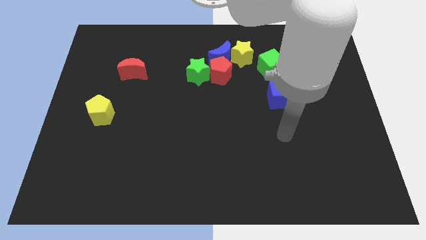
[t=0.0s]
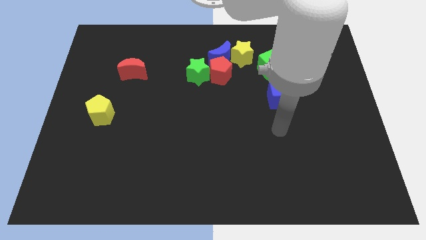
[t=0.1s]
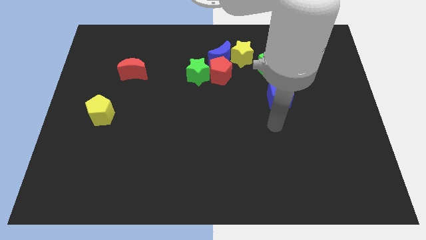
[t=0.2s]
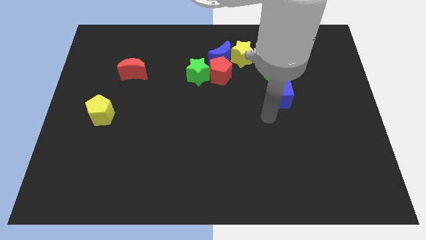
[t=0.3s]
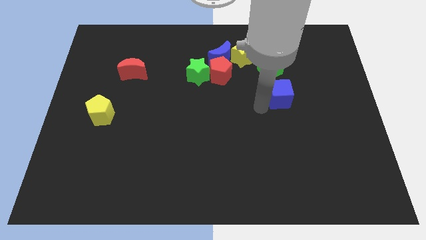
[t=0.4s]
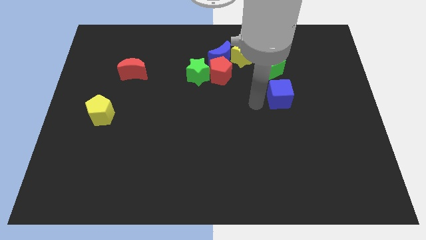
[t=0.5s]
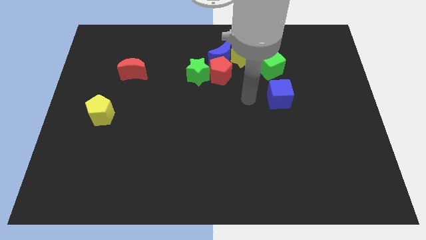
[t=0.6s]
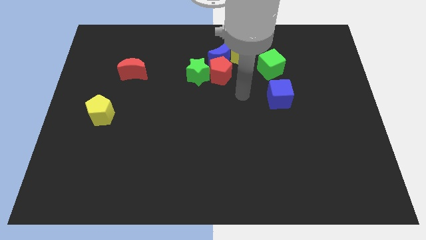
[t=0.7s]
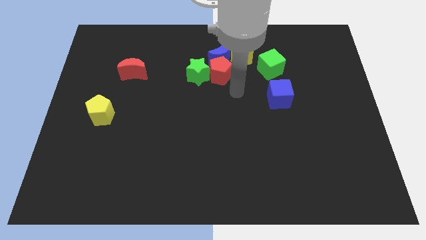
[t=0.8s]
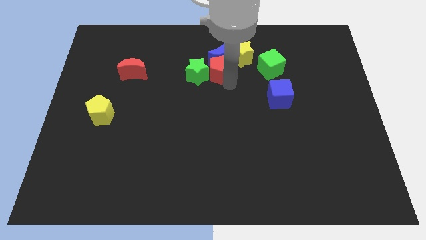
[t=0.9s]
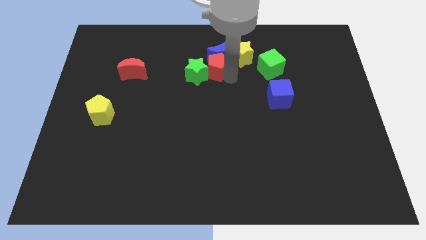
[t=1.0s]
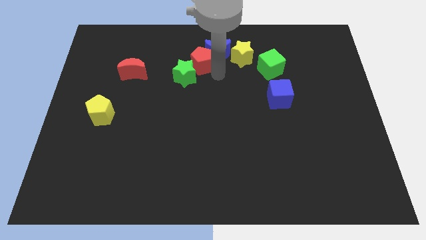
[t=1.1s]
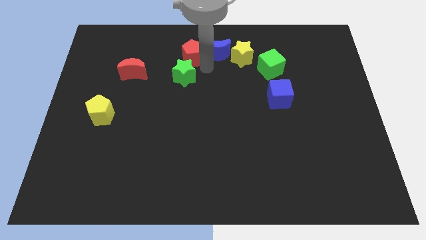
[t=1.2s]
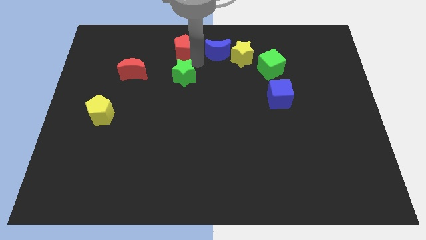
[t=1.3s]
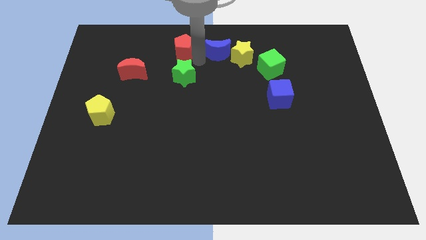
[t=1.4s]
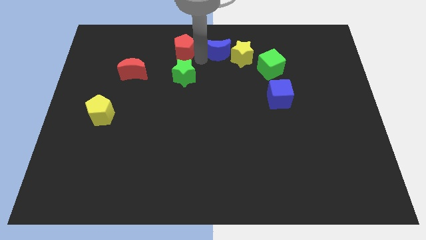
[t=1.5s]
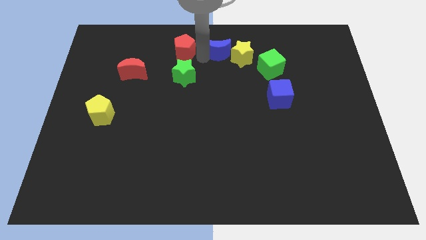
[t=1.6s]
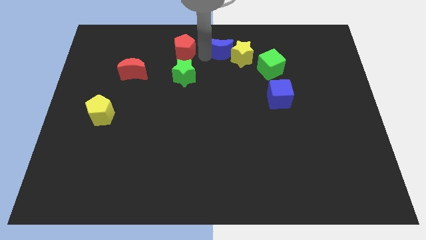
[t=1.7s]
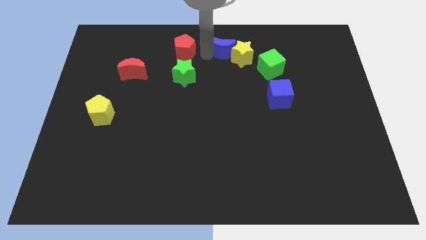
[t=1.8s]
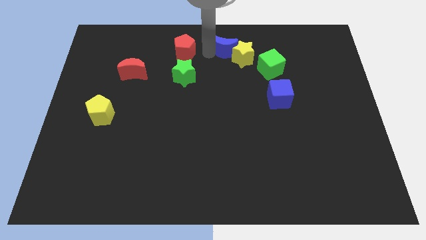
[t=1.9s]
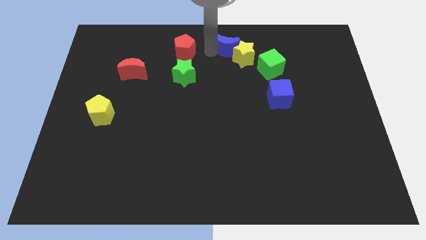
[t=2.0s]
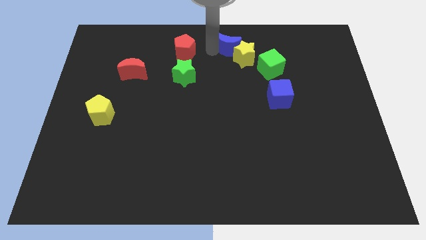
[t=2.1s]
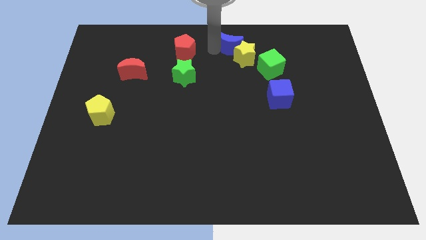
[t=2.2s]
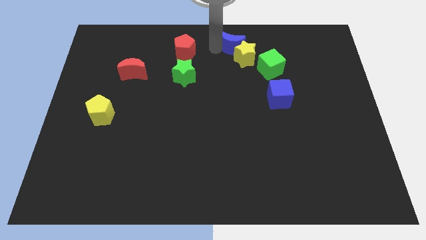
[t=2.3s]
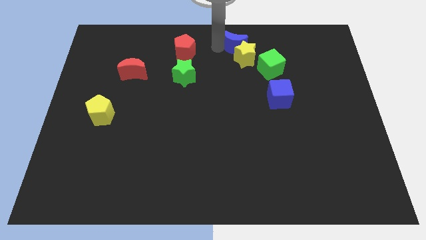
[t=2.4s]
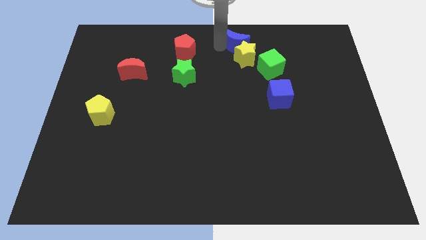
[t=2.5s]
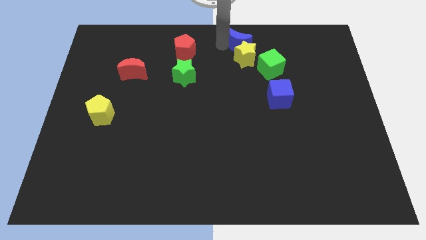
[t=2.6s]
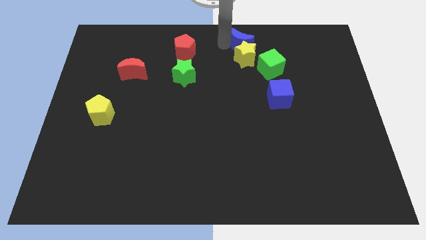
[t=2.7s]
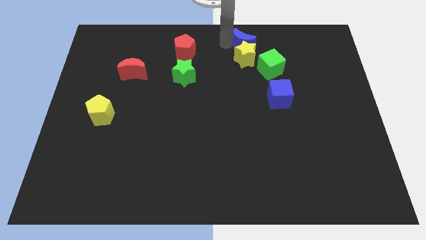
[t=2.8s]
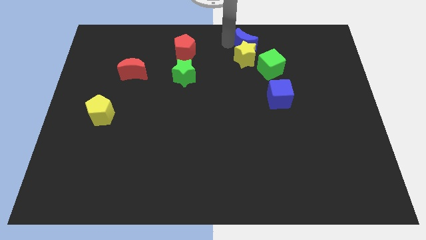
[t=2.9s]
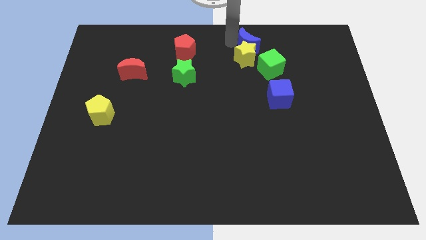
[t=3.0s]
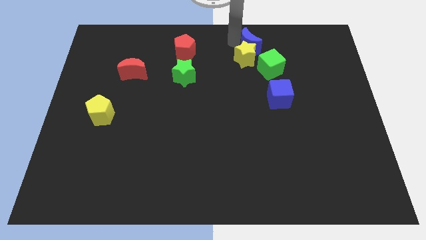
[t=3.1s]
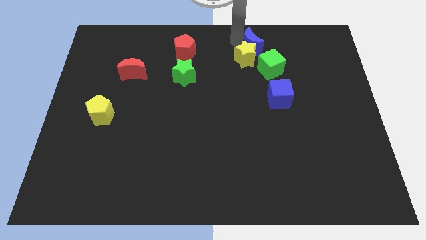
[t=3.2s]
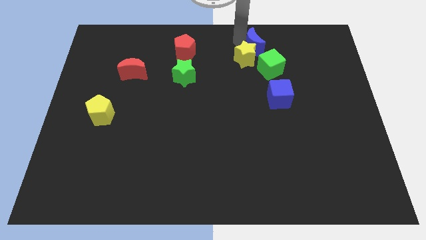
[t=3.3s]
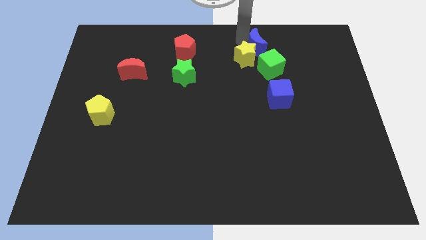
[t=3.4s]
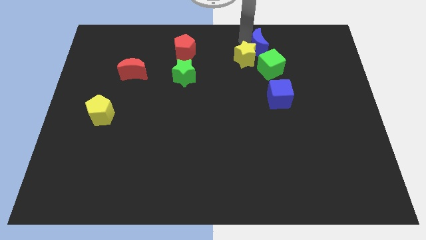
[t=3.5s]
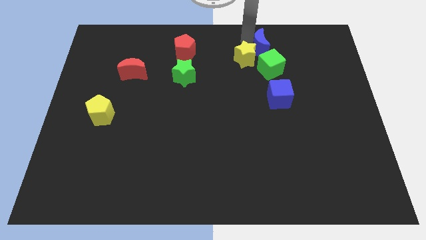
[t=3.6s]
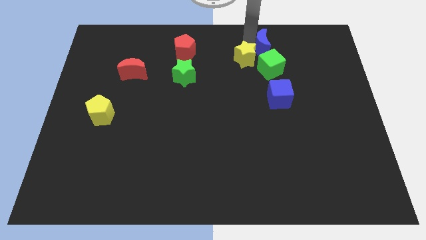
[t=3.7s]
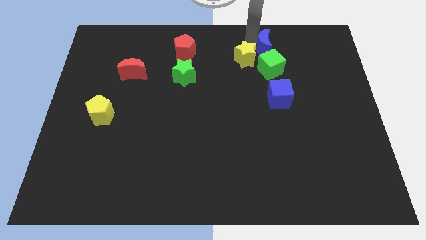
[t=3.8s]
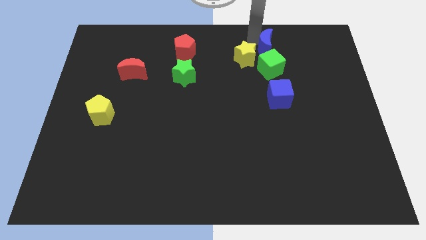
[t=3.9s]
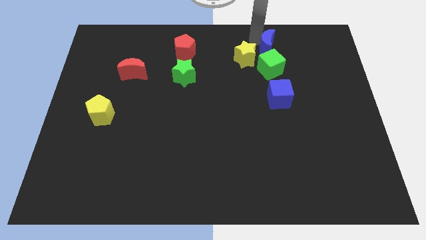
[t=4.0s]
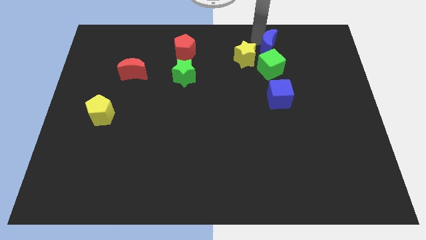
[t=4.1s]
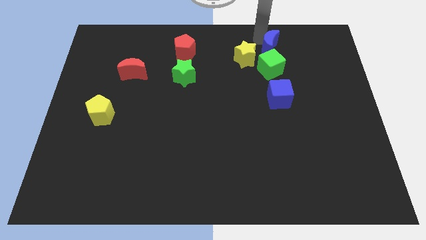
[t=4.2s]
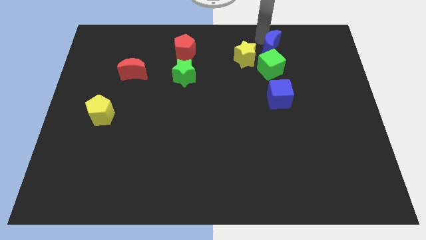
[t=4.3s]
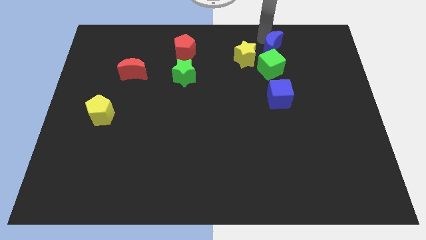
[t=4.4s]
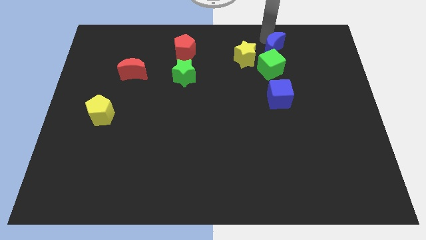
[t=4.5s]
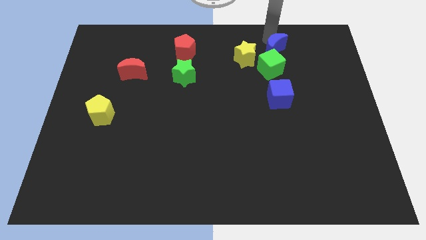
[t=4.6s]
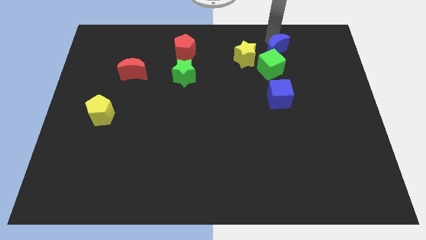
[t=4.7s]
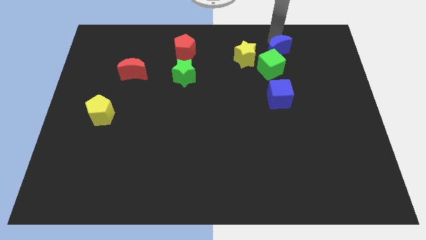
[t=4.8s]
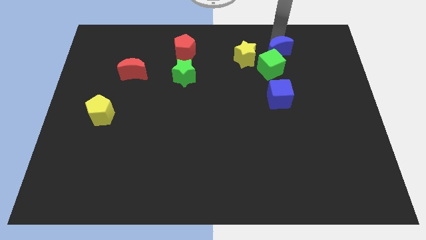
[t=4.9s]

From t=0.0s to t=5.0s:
put the blue moon to the top of the blue cube

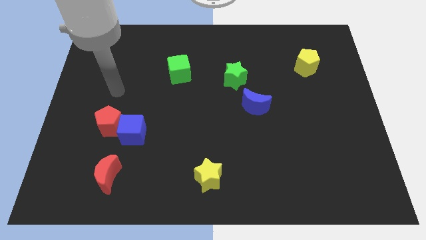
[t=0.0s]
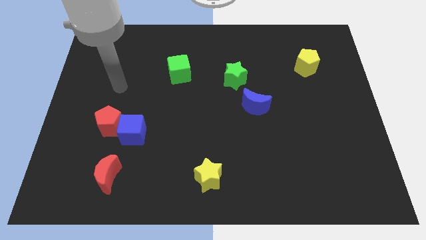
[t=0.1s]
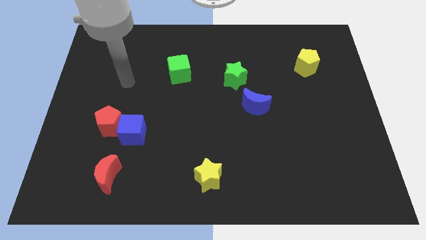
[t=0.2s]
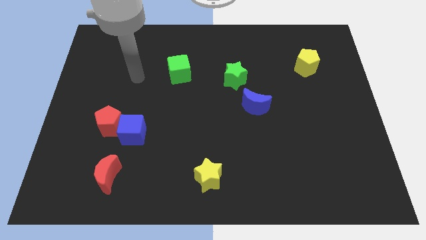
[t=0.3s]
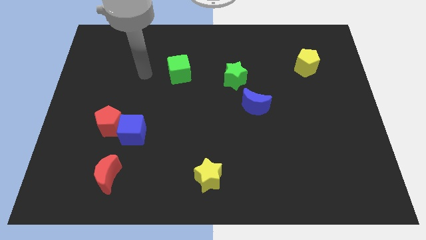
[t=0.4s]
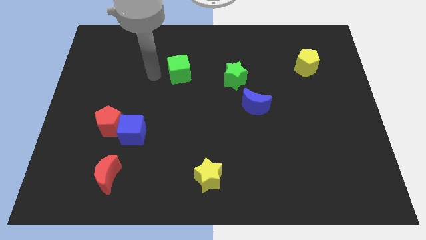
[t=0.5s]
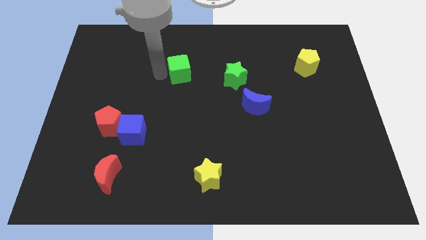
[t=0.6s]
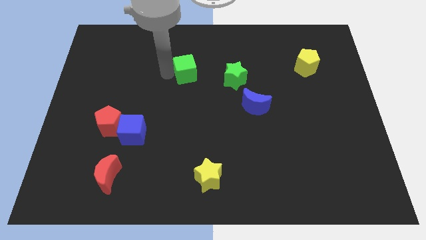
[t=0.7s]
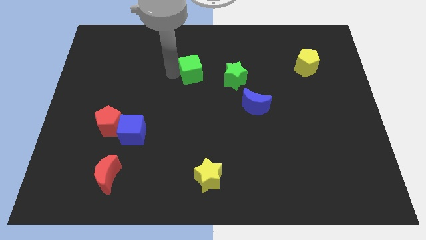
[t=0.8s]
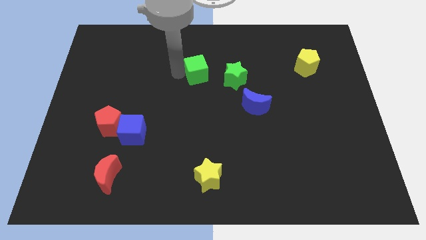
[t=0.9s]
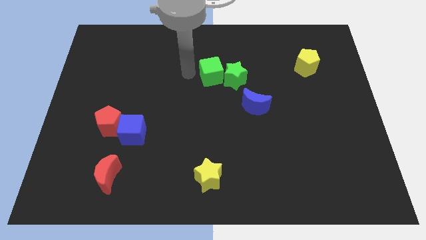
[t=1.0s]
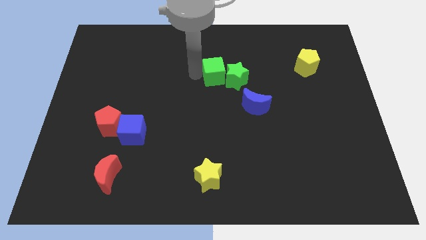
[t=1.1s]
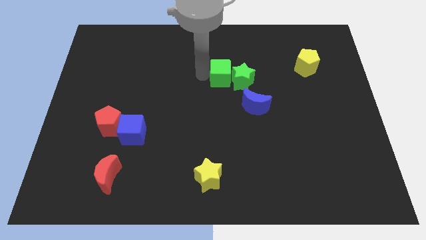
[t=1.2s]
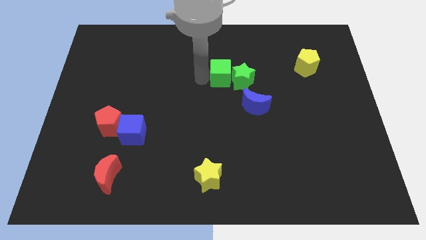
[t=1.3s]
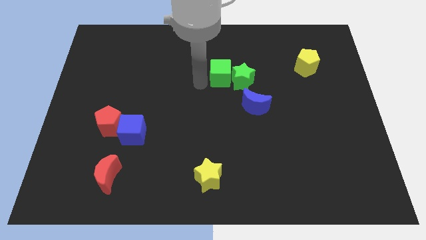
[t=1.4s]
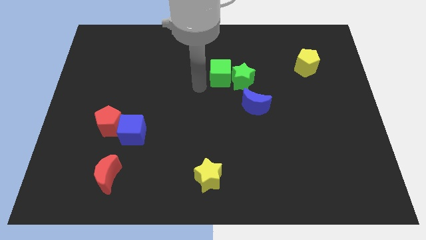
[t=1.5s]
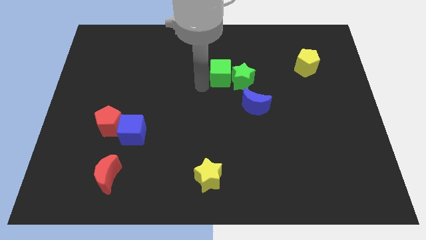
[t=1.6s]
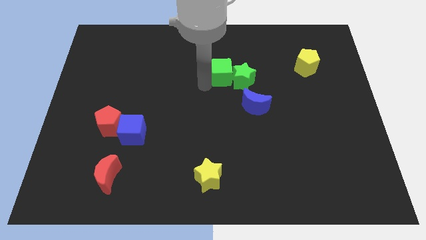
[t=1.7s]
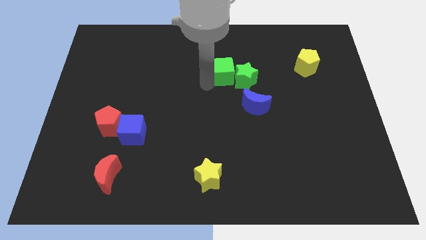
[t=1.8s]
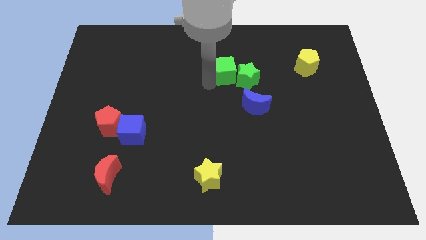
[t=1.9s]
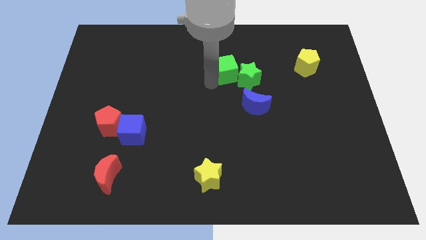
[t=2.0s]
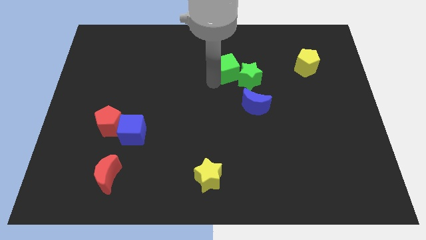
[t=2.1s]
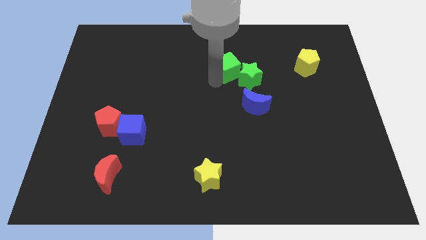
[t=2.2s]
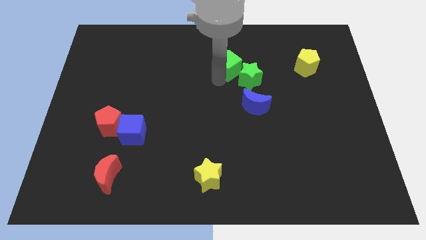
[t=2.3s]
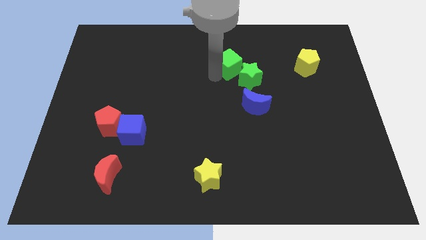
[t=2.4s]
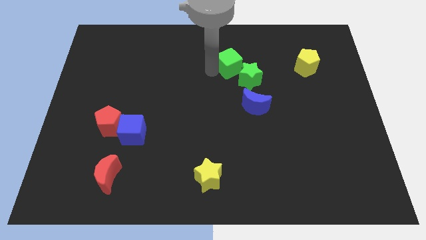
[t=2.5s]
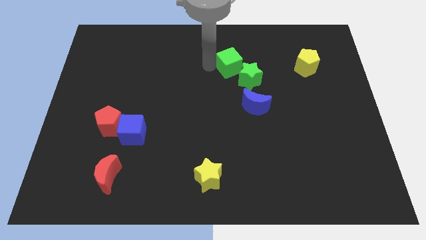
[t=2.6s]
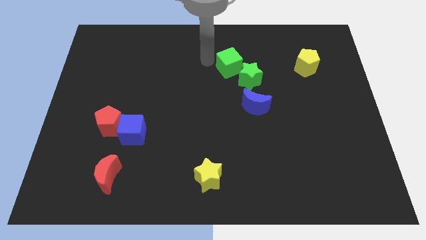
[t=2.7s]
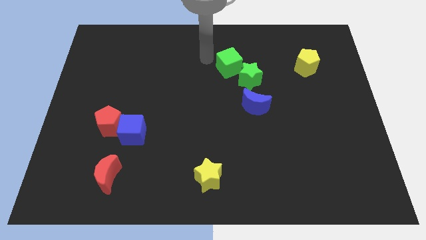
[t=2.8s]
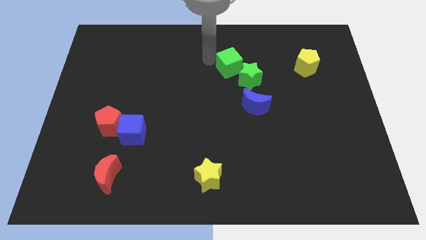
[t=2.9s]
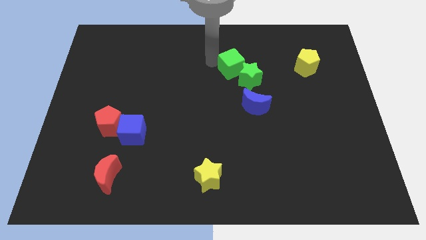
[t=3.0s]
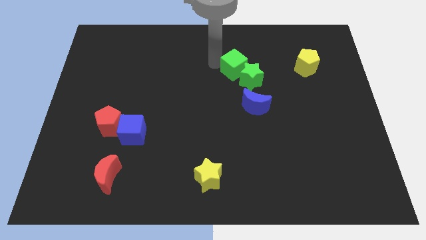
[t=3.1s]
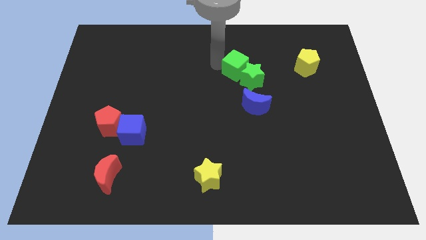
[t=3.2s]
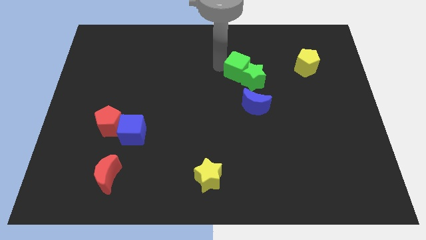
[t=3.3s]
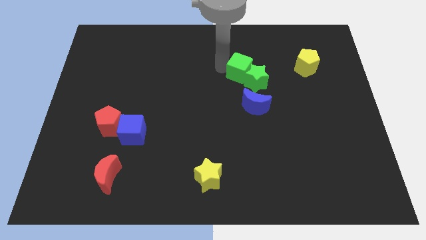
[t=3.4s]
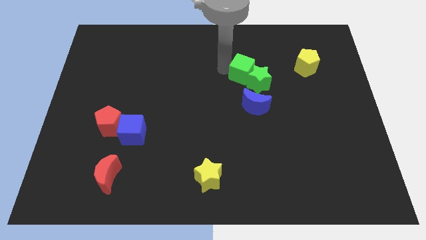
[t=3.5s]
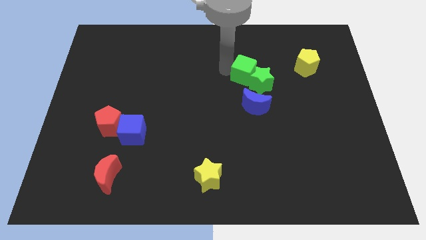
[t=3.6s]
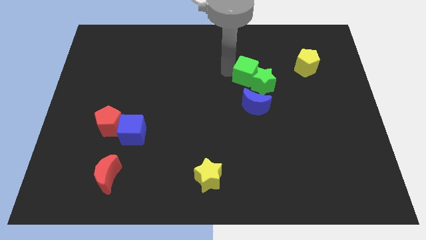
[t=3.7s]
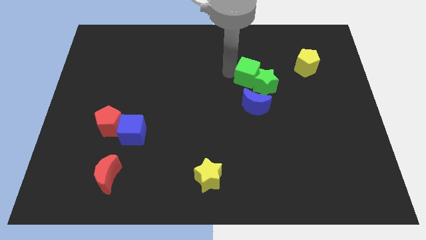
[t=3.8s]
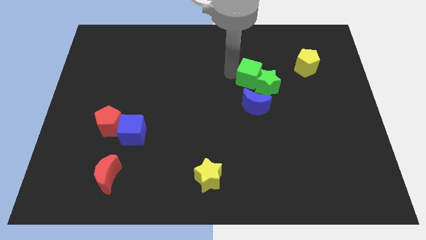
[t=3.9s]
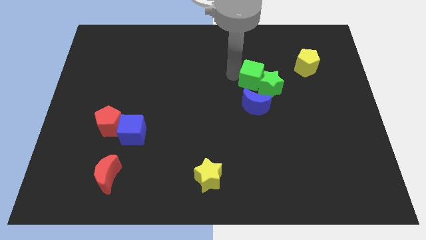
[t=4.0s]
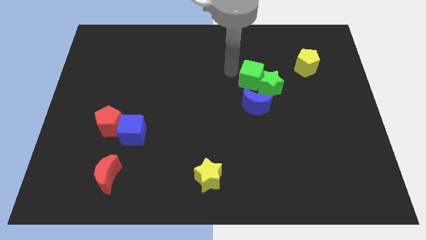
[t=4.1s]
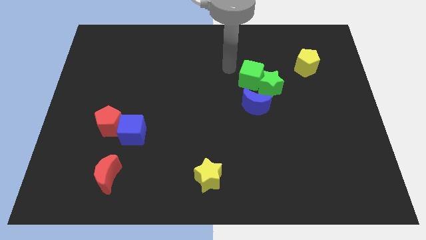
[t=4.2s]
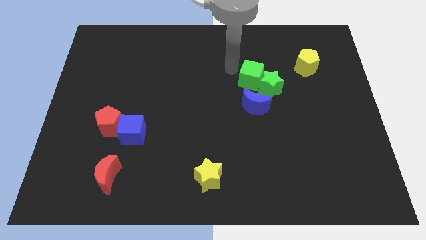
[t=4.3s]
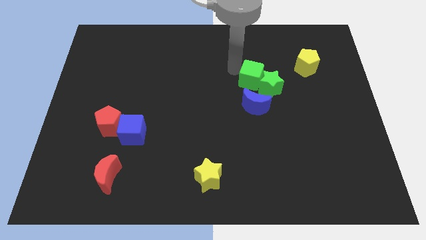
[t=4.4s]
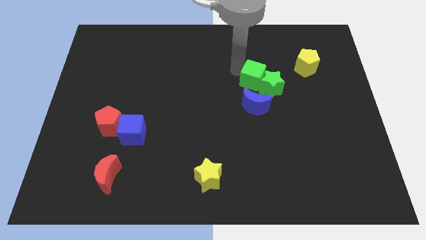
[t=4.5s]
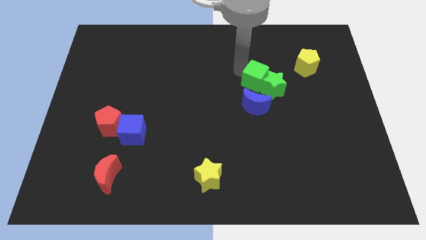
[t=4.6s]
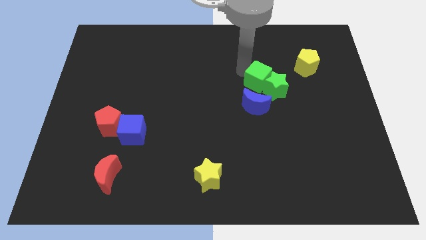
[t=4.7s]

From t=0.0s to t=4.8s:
put the green cube to the top right side of the blue moon
